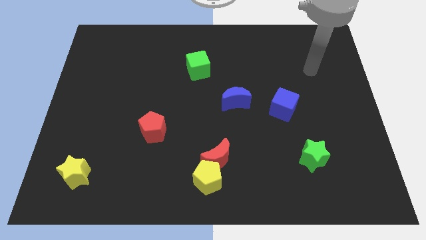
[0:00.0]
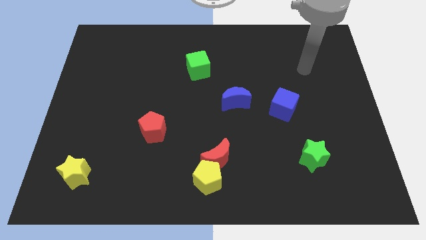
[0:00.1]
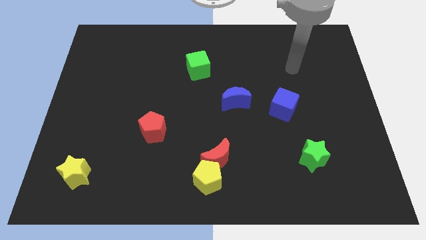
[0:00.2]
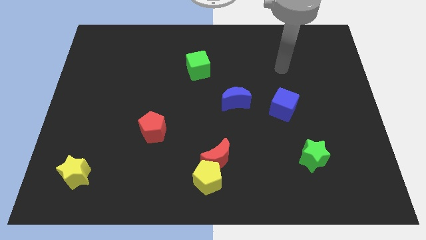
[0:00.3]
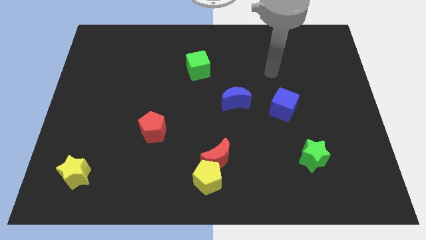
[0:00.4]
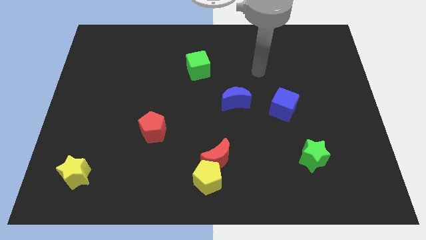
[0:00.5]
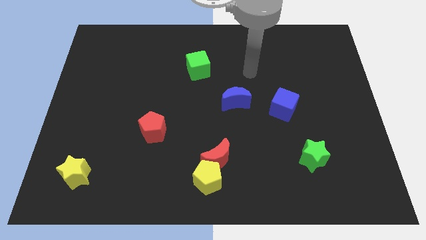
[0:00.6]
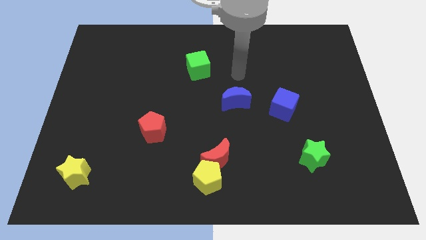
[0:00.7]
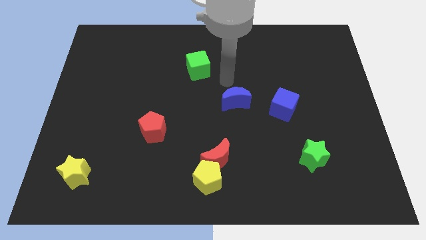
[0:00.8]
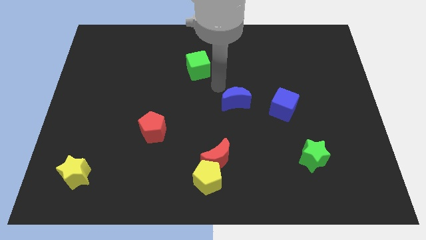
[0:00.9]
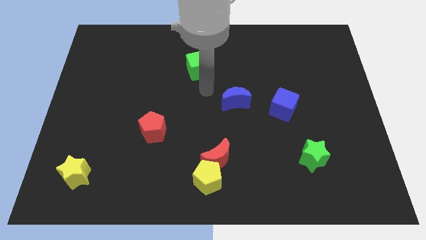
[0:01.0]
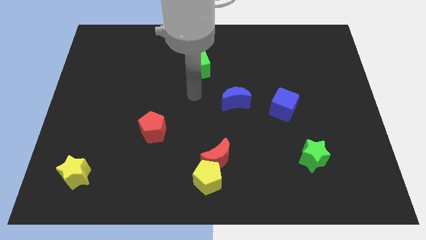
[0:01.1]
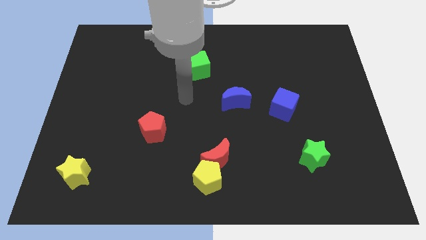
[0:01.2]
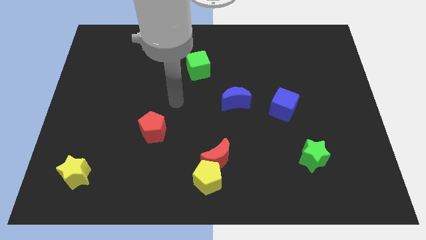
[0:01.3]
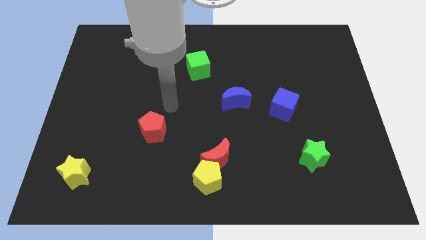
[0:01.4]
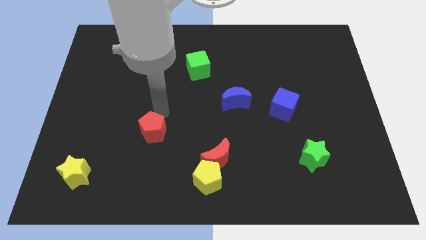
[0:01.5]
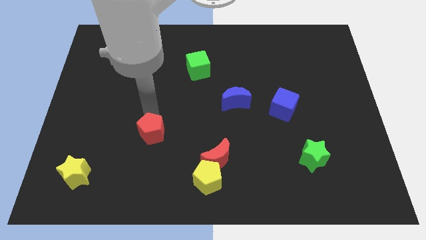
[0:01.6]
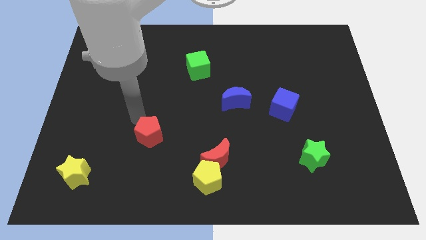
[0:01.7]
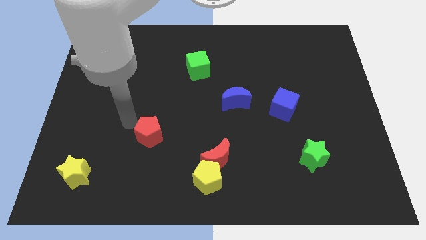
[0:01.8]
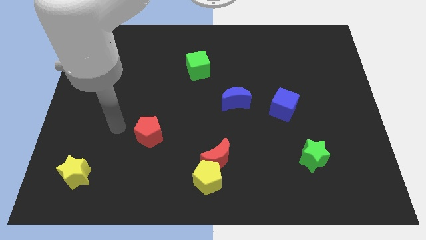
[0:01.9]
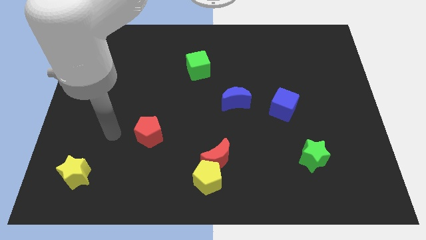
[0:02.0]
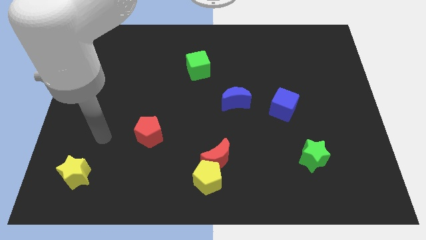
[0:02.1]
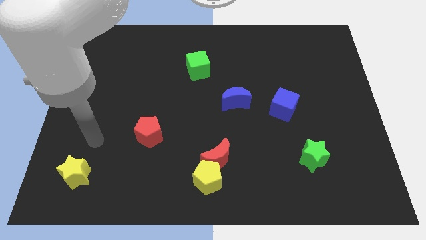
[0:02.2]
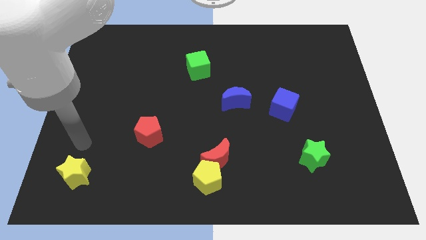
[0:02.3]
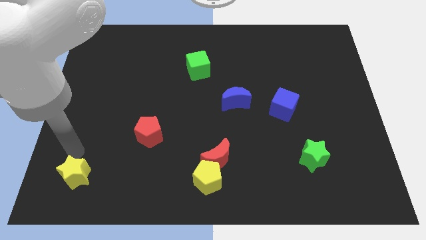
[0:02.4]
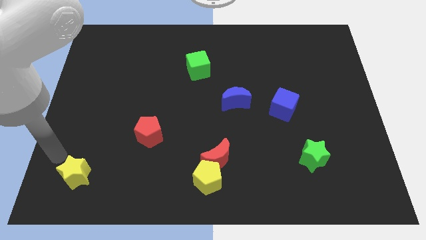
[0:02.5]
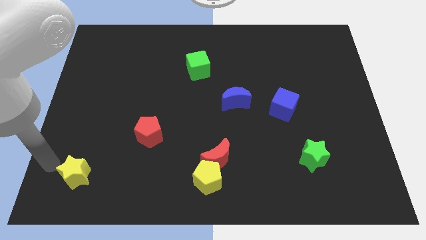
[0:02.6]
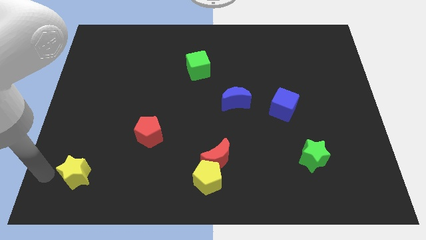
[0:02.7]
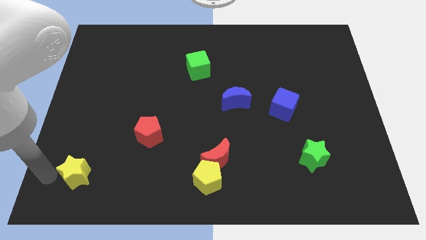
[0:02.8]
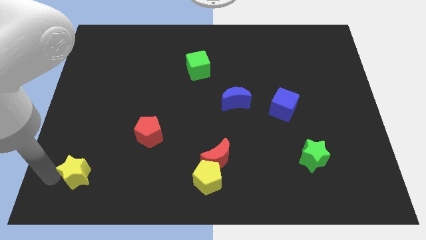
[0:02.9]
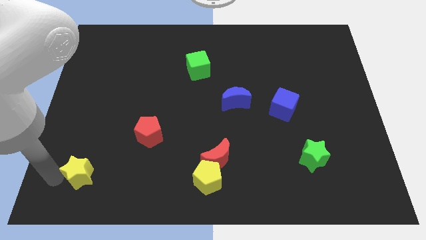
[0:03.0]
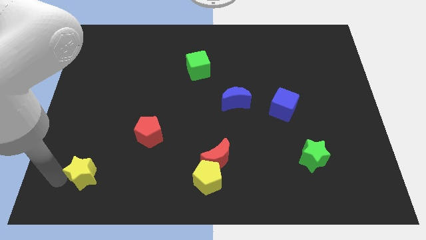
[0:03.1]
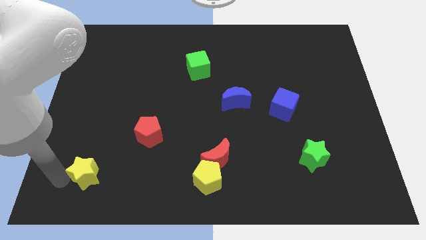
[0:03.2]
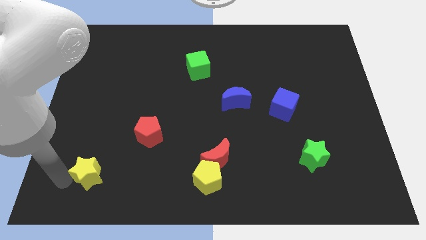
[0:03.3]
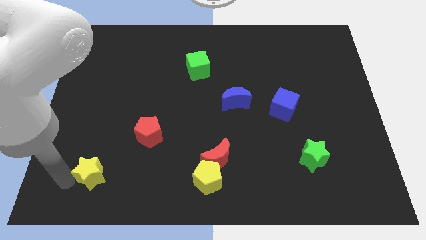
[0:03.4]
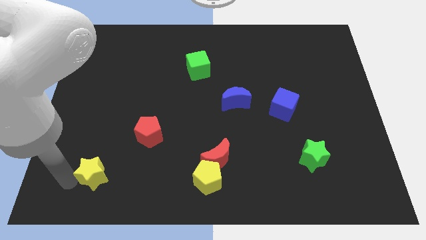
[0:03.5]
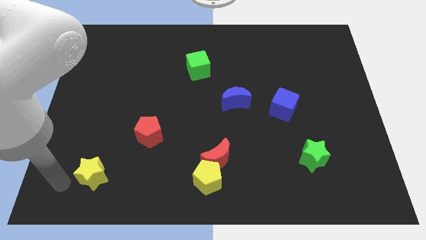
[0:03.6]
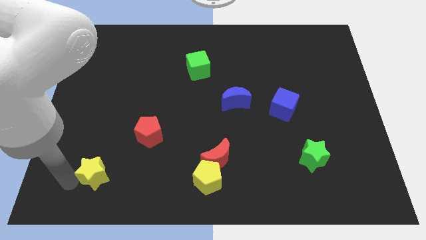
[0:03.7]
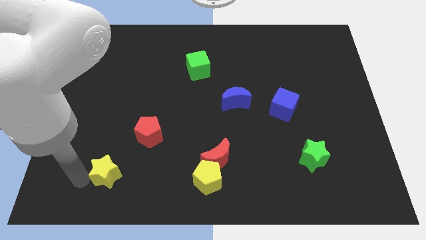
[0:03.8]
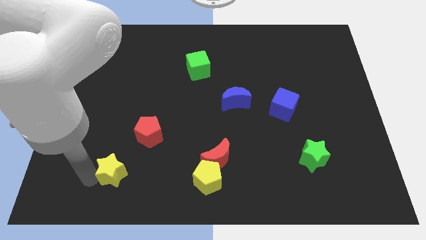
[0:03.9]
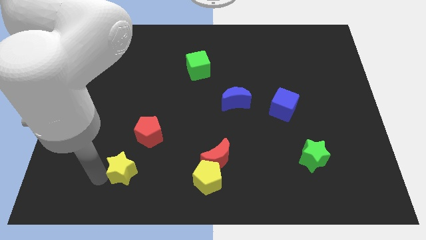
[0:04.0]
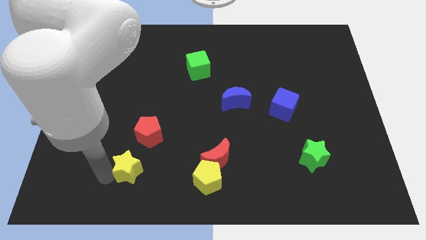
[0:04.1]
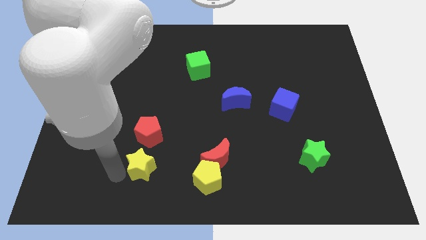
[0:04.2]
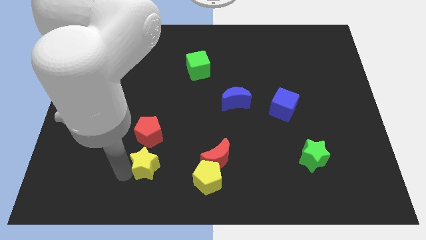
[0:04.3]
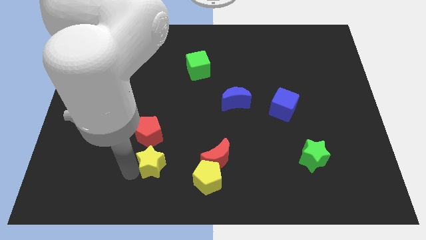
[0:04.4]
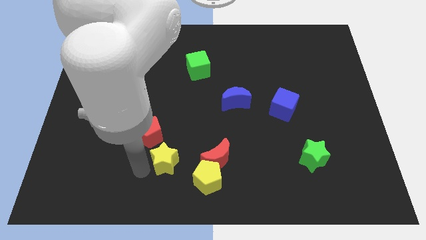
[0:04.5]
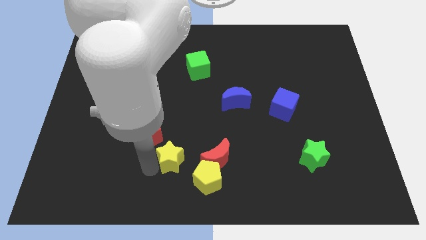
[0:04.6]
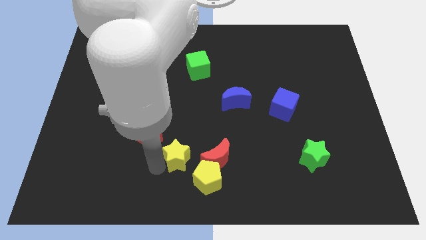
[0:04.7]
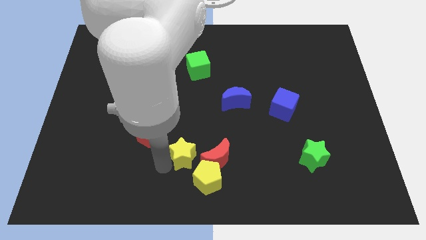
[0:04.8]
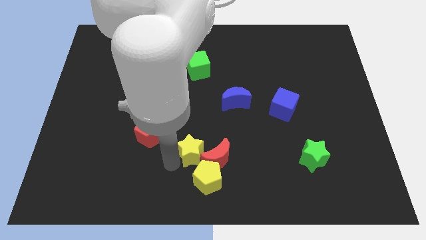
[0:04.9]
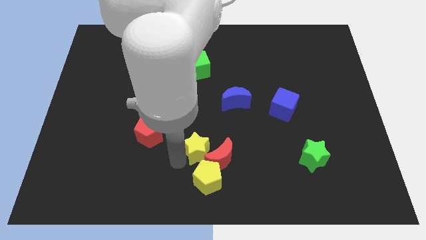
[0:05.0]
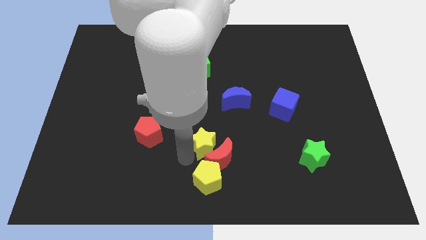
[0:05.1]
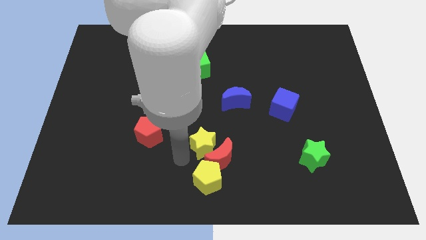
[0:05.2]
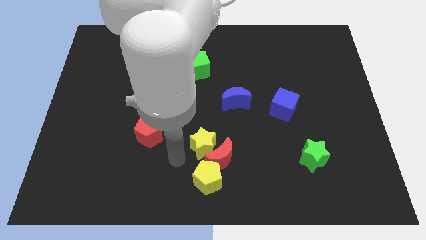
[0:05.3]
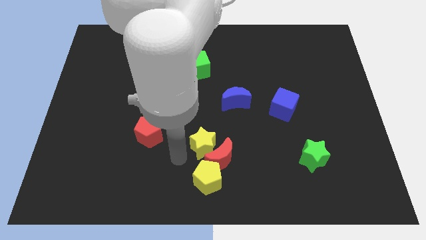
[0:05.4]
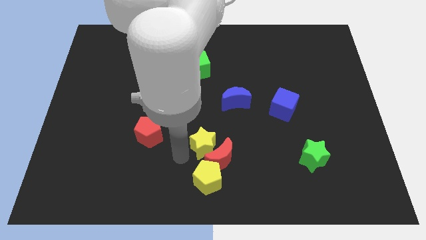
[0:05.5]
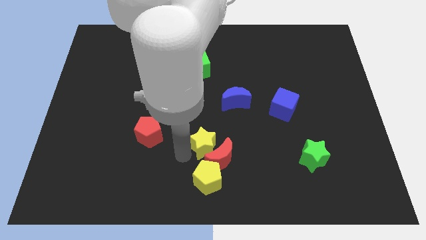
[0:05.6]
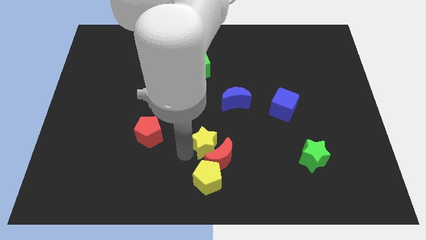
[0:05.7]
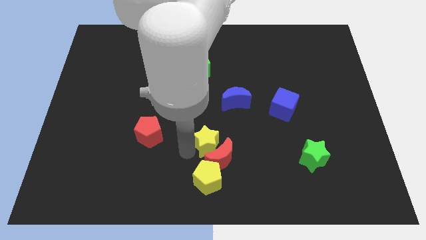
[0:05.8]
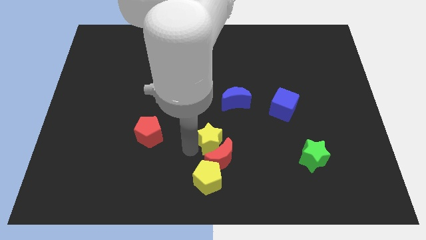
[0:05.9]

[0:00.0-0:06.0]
slide the yellow star diagonally up and to the right of the red moon

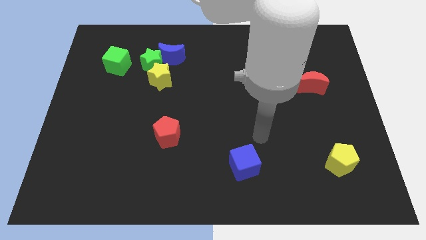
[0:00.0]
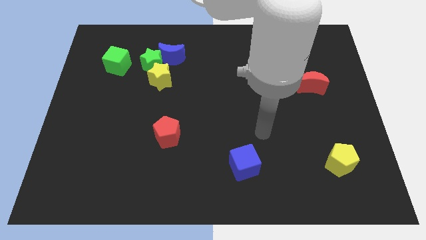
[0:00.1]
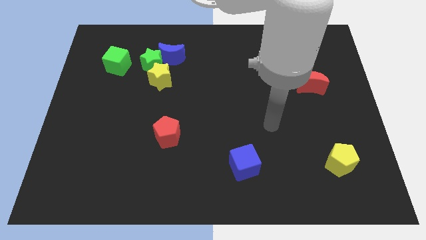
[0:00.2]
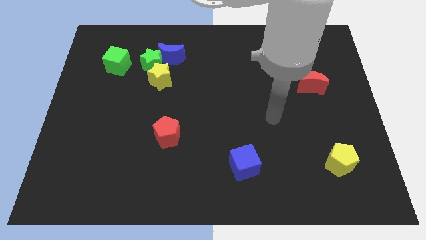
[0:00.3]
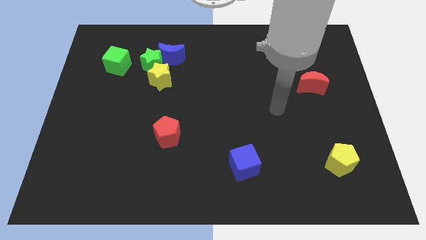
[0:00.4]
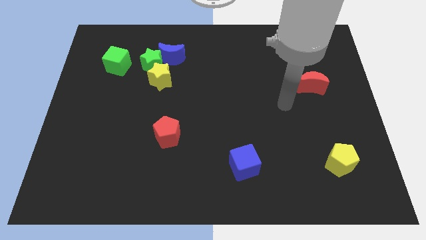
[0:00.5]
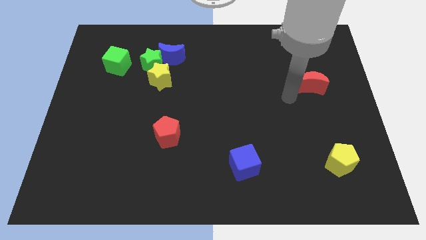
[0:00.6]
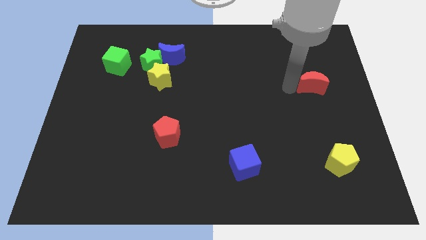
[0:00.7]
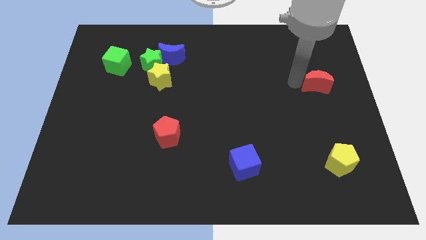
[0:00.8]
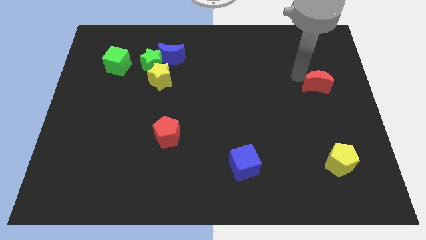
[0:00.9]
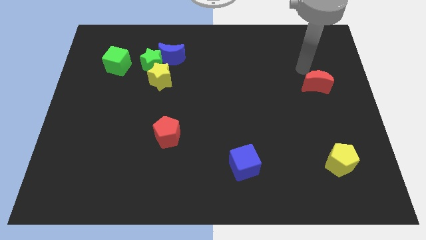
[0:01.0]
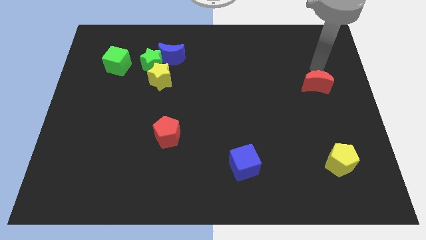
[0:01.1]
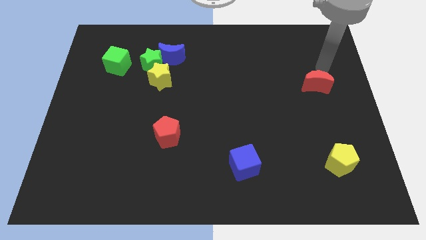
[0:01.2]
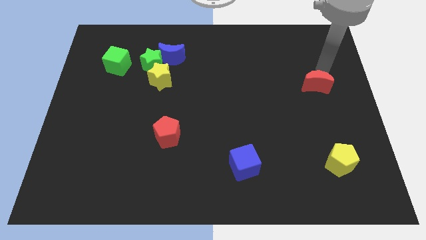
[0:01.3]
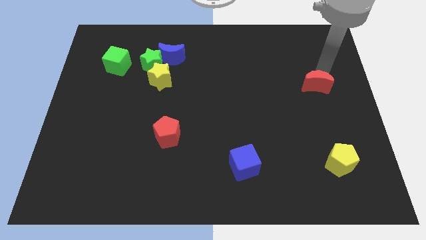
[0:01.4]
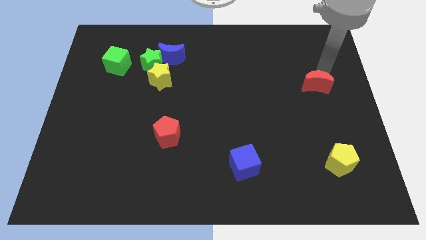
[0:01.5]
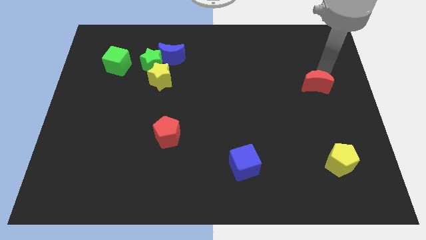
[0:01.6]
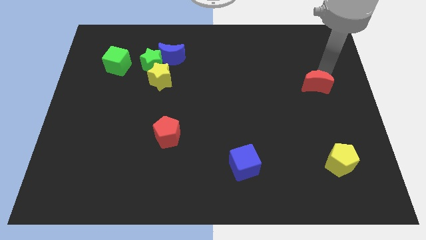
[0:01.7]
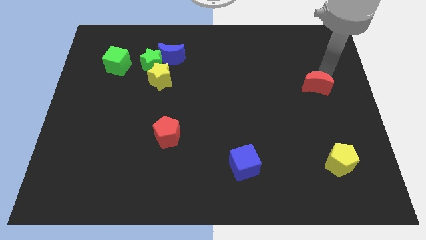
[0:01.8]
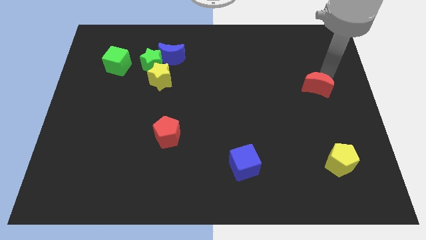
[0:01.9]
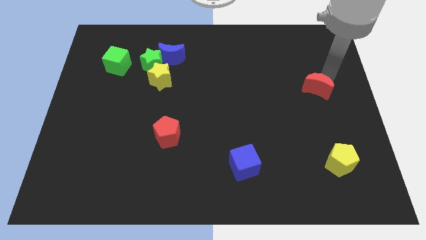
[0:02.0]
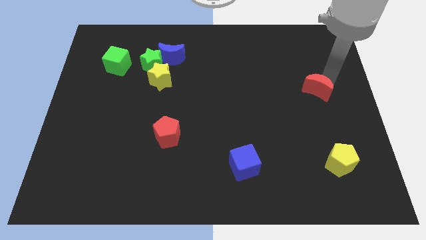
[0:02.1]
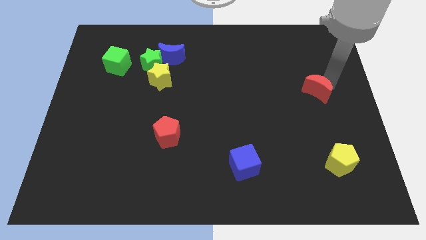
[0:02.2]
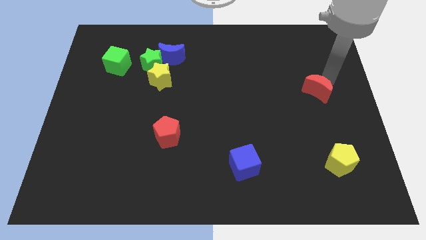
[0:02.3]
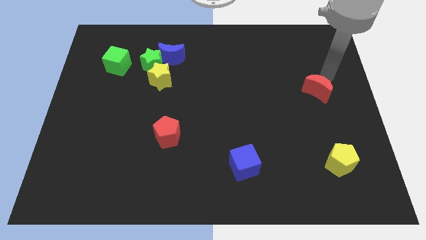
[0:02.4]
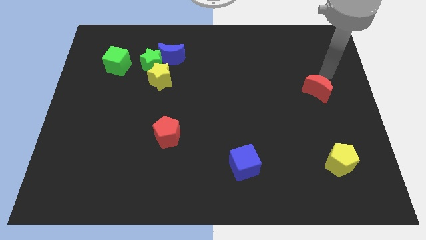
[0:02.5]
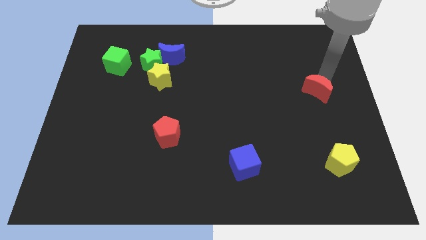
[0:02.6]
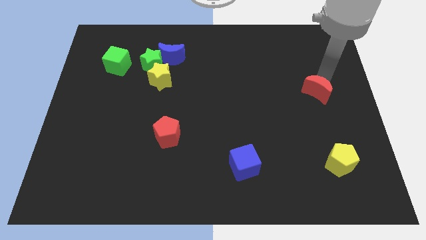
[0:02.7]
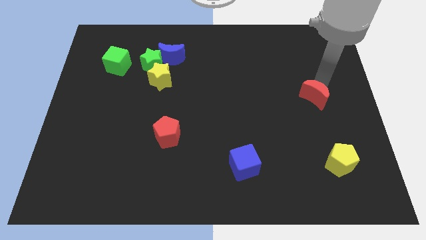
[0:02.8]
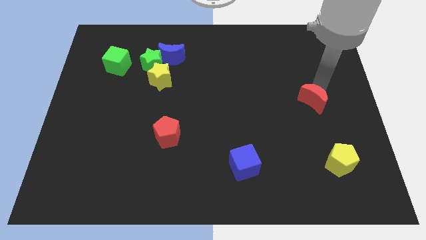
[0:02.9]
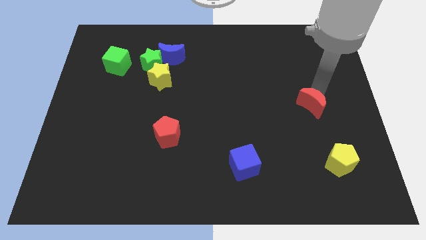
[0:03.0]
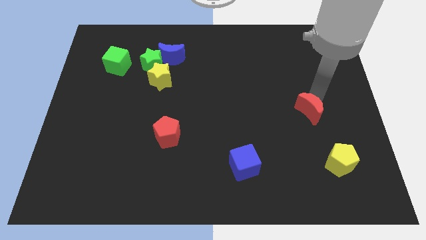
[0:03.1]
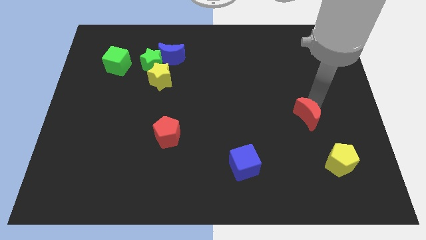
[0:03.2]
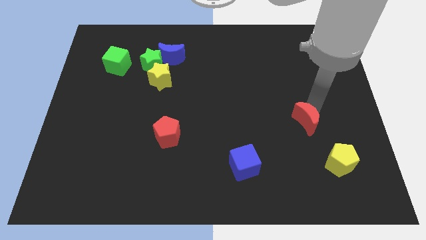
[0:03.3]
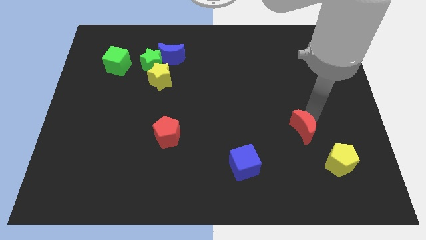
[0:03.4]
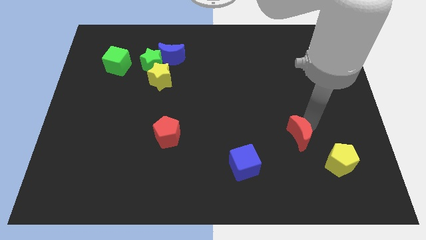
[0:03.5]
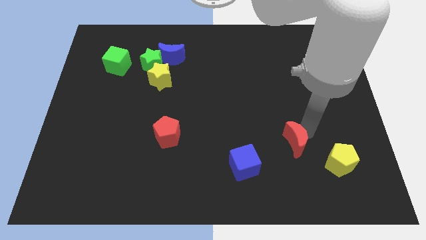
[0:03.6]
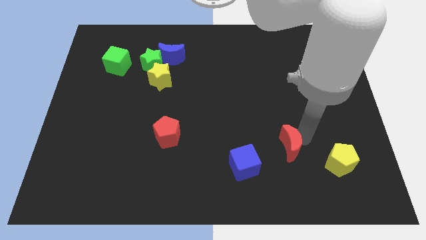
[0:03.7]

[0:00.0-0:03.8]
put the red moon to the top right of the blue cube
